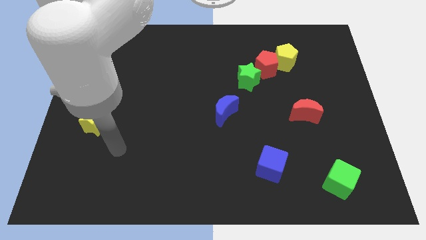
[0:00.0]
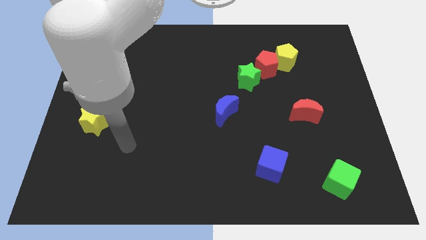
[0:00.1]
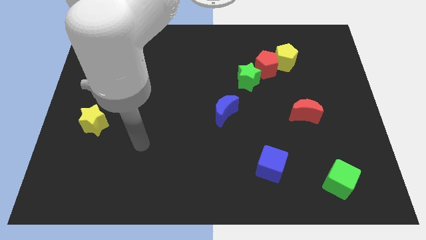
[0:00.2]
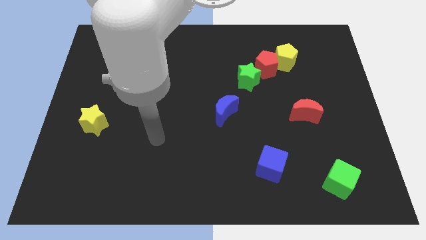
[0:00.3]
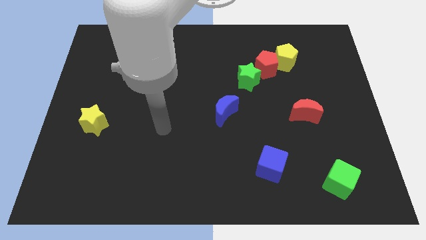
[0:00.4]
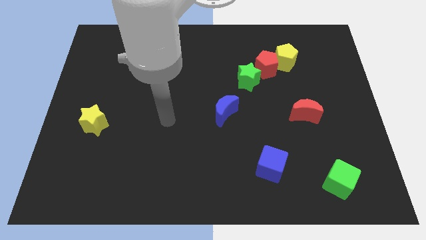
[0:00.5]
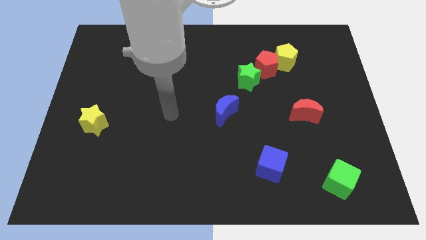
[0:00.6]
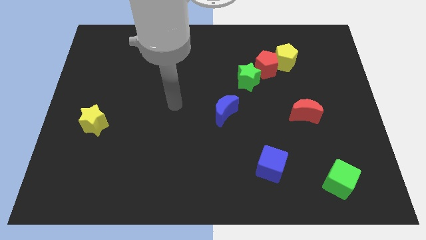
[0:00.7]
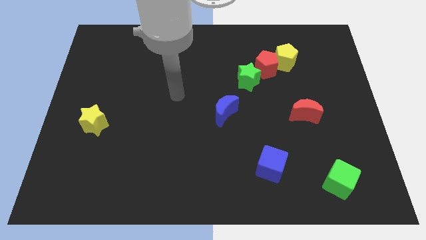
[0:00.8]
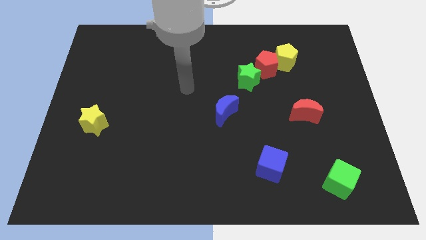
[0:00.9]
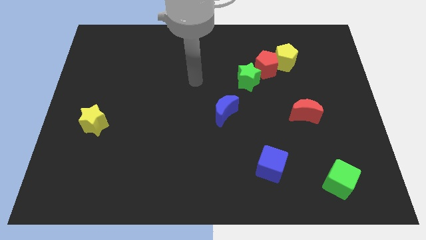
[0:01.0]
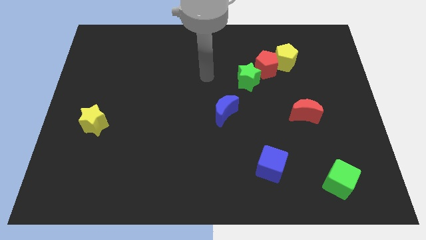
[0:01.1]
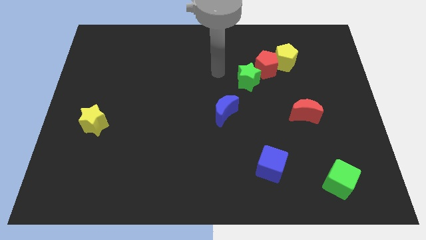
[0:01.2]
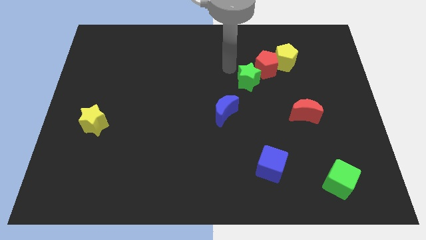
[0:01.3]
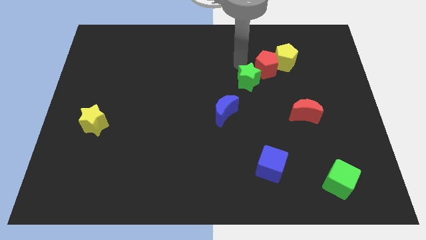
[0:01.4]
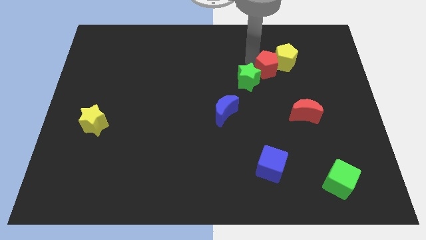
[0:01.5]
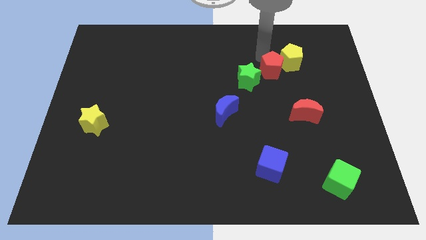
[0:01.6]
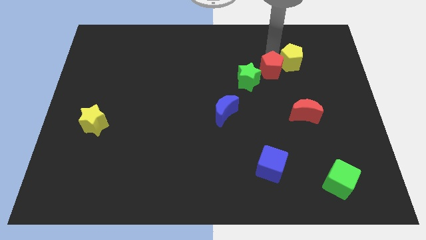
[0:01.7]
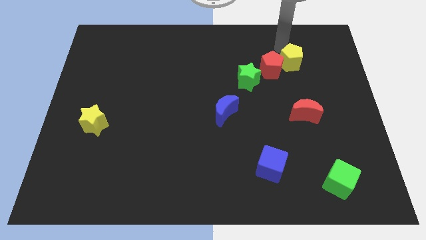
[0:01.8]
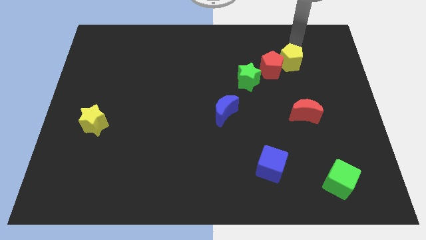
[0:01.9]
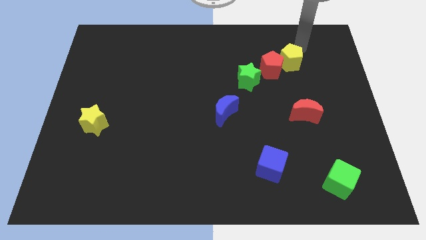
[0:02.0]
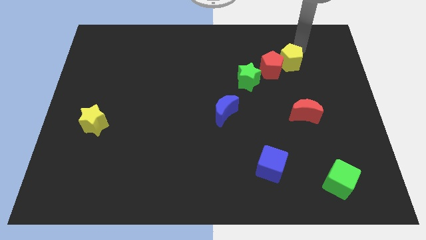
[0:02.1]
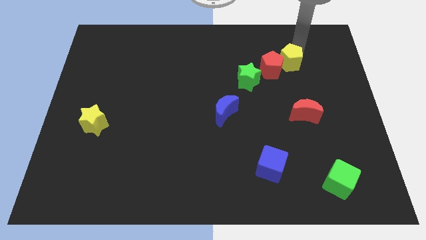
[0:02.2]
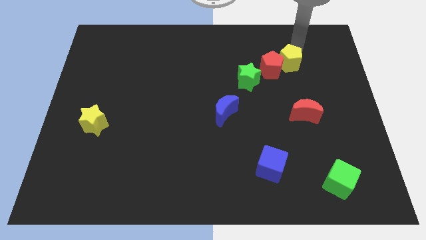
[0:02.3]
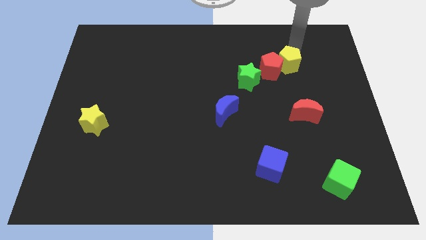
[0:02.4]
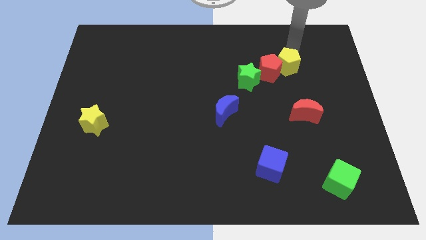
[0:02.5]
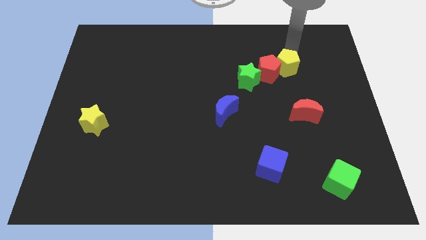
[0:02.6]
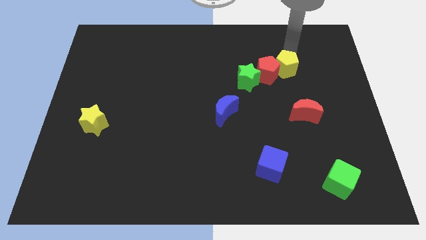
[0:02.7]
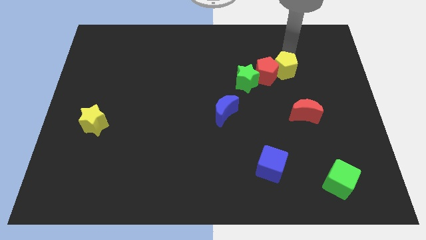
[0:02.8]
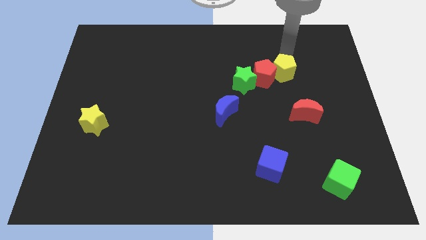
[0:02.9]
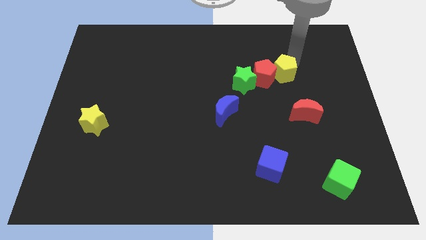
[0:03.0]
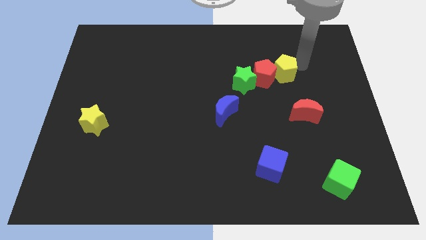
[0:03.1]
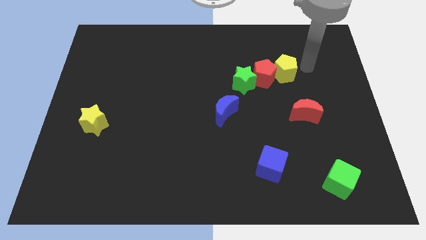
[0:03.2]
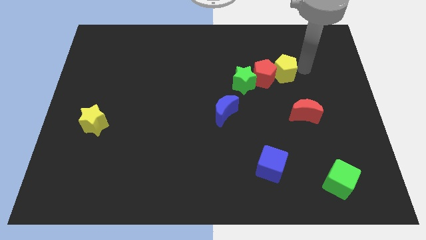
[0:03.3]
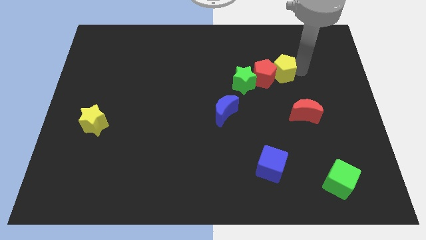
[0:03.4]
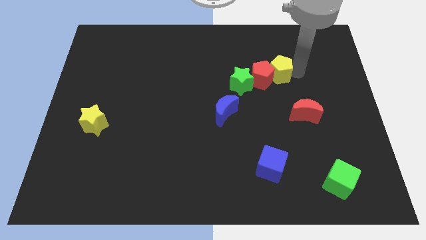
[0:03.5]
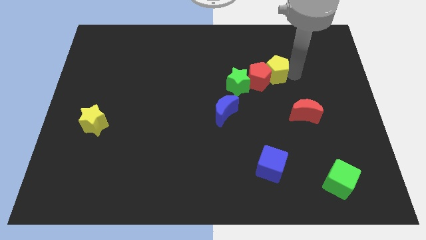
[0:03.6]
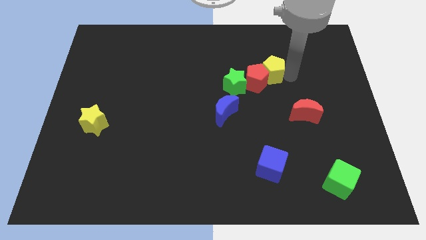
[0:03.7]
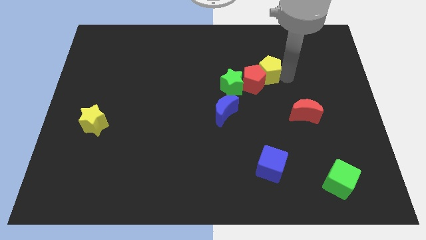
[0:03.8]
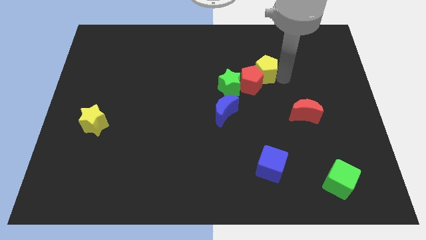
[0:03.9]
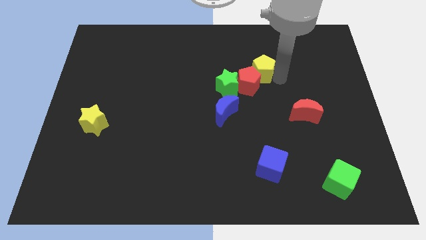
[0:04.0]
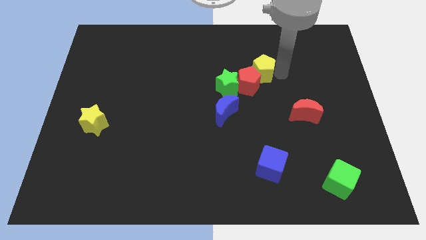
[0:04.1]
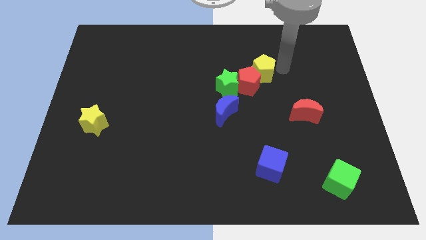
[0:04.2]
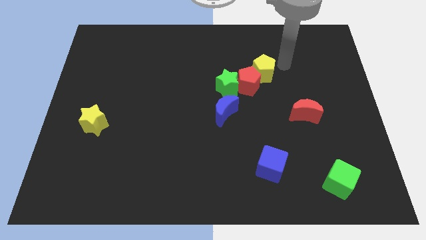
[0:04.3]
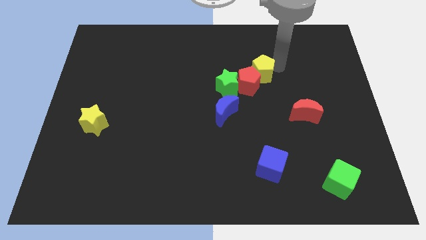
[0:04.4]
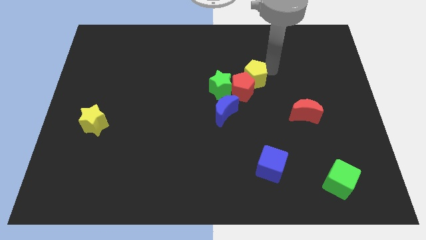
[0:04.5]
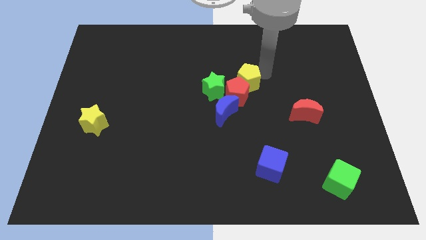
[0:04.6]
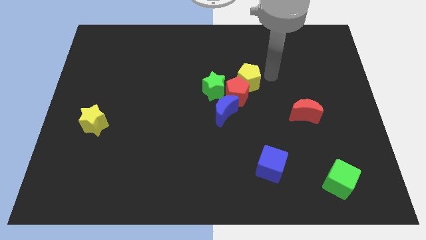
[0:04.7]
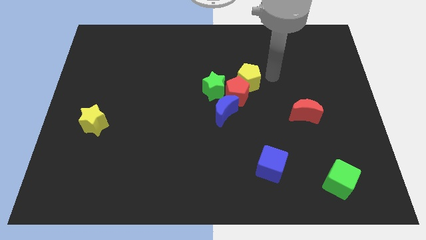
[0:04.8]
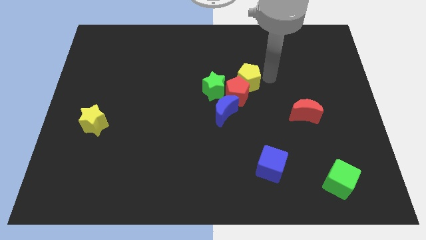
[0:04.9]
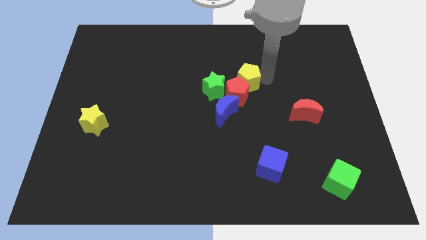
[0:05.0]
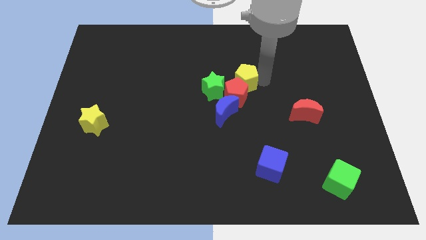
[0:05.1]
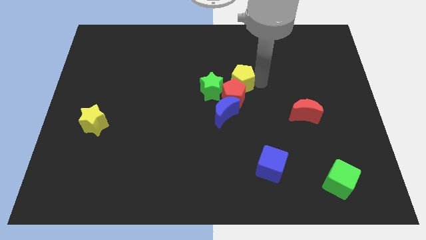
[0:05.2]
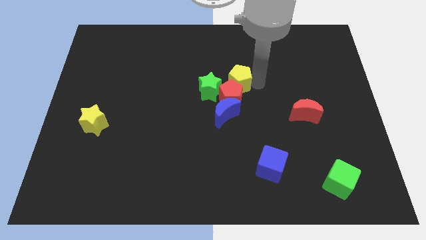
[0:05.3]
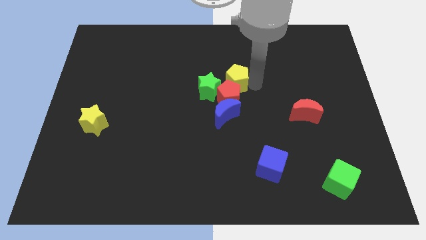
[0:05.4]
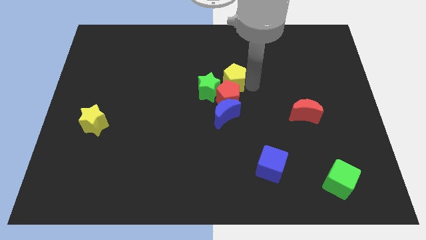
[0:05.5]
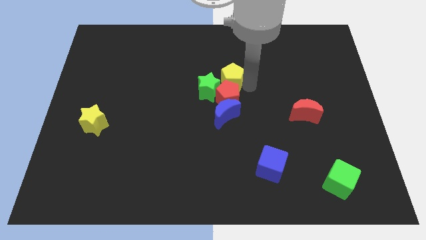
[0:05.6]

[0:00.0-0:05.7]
move the yellow pentagon next to the green star
